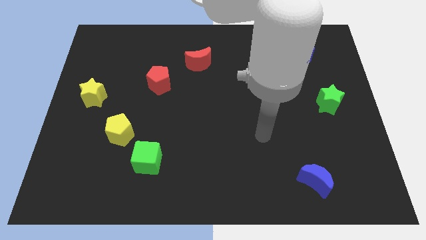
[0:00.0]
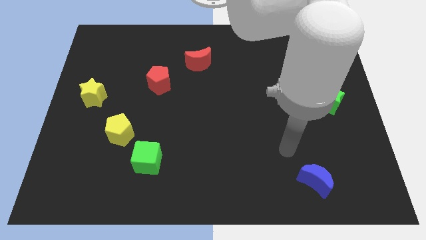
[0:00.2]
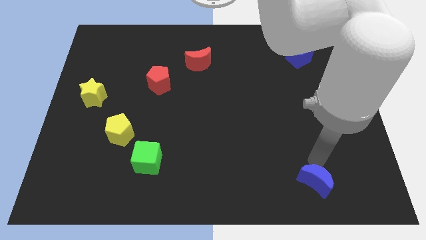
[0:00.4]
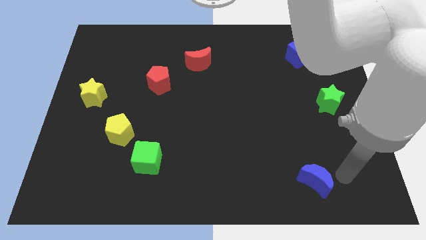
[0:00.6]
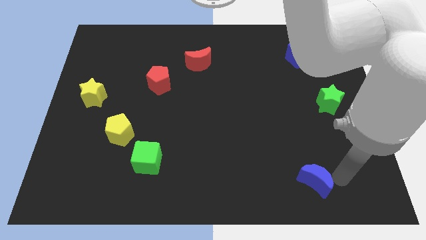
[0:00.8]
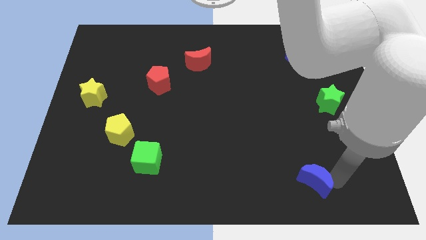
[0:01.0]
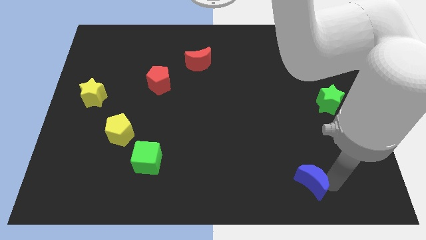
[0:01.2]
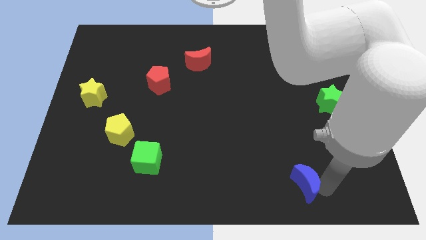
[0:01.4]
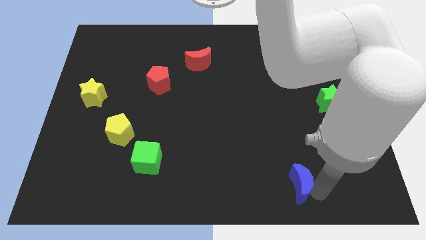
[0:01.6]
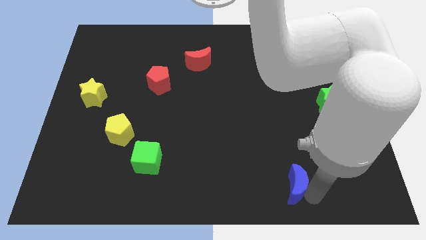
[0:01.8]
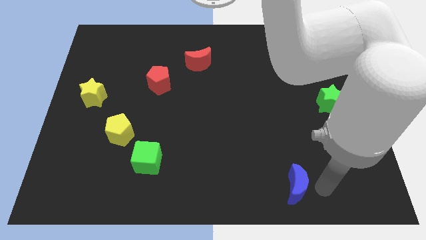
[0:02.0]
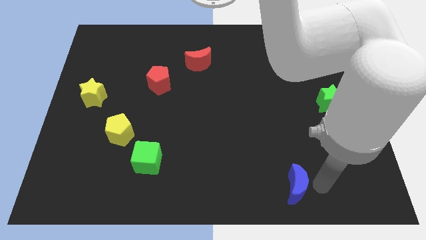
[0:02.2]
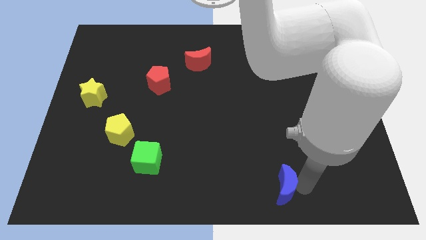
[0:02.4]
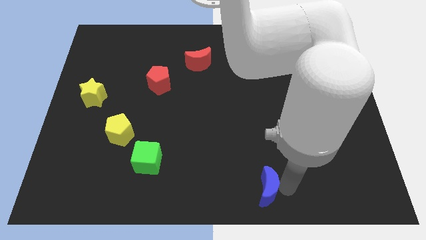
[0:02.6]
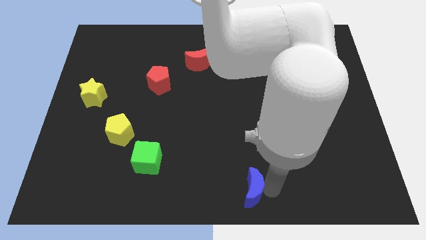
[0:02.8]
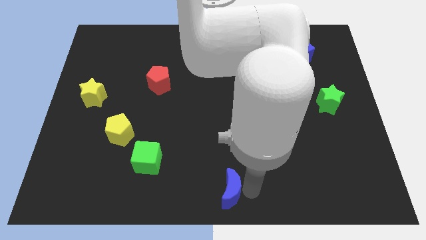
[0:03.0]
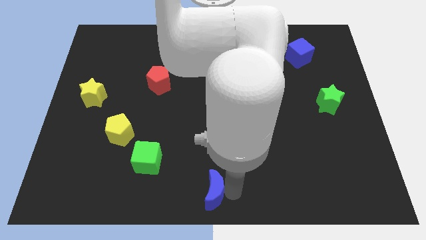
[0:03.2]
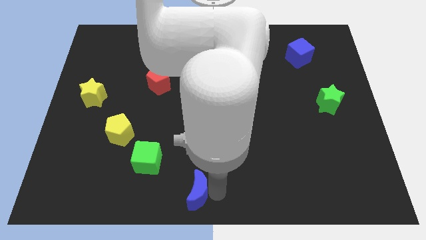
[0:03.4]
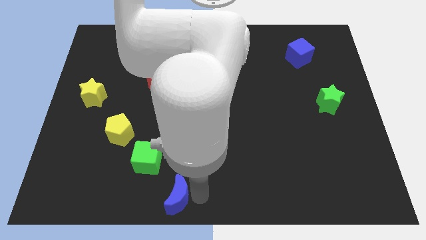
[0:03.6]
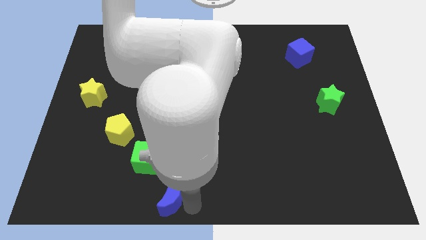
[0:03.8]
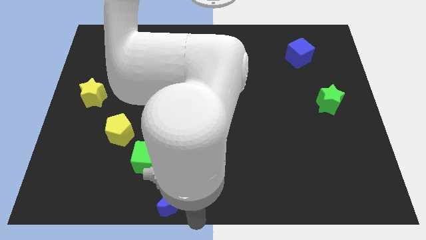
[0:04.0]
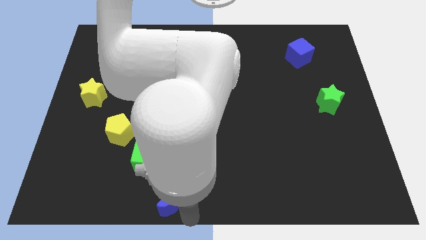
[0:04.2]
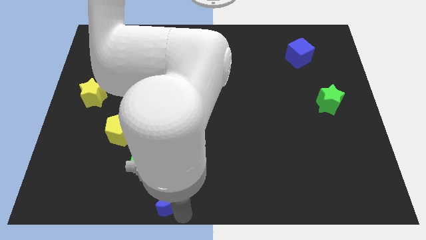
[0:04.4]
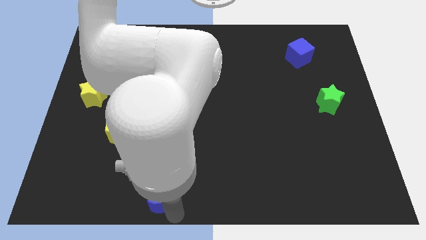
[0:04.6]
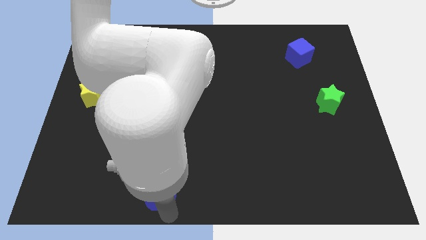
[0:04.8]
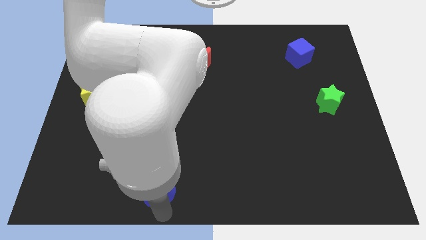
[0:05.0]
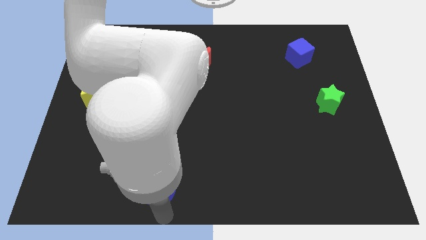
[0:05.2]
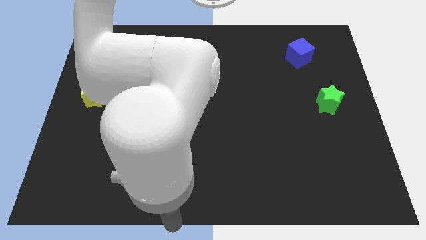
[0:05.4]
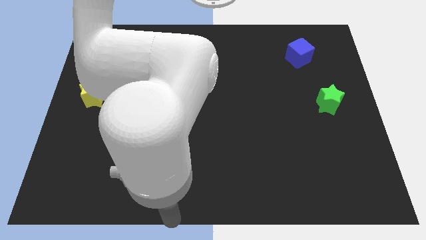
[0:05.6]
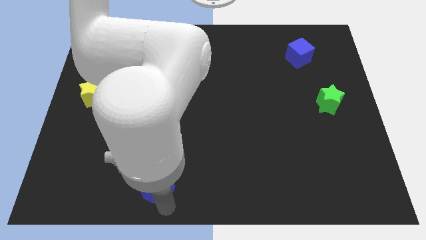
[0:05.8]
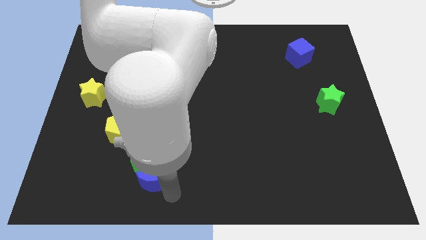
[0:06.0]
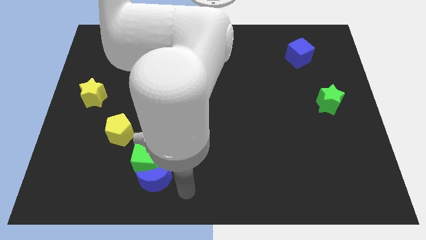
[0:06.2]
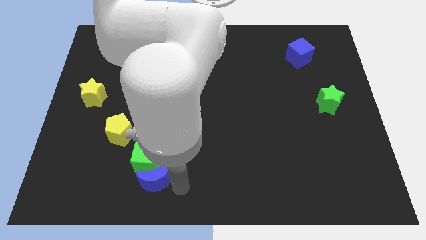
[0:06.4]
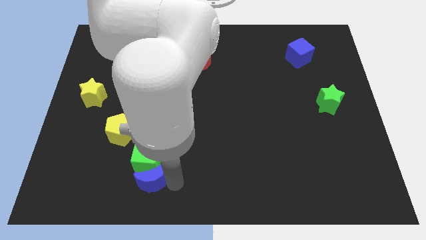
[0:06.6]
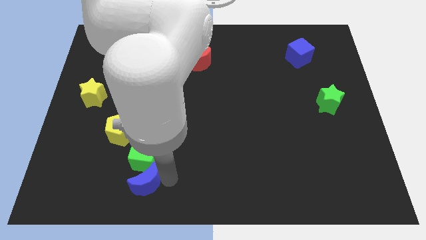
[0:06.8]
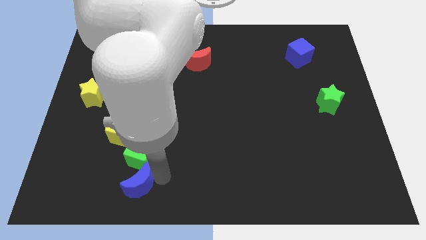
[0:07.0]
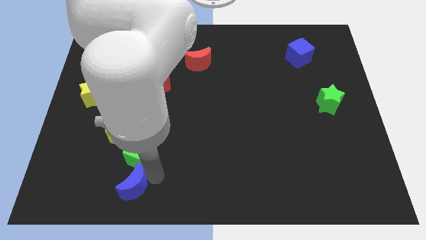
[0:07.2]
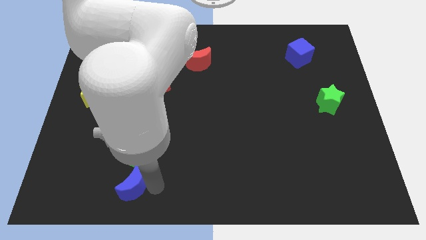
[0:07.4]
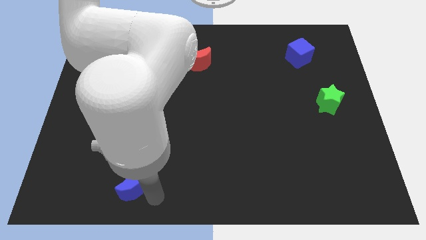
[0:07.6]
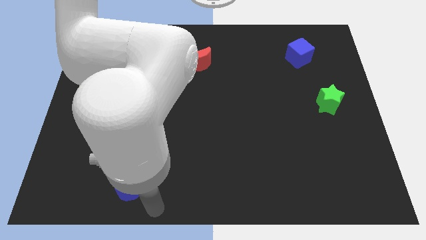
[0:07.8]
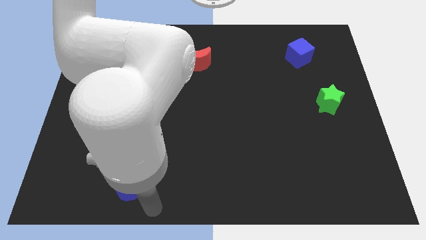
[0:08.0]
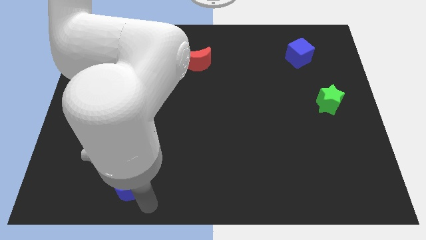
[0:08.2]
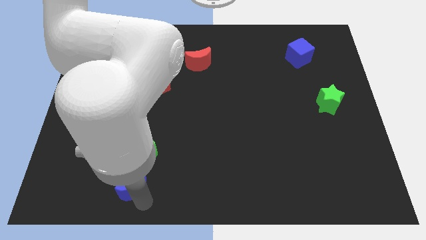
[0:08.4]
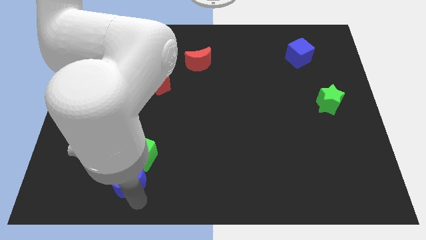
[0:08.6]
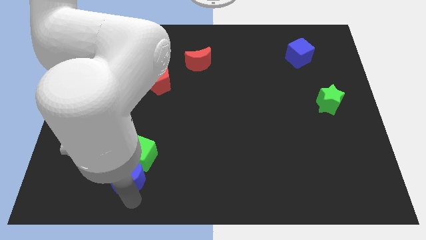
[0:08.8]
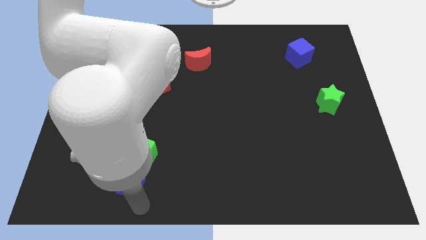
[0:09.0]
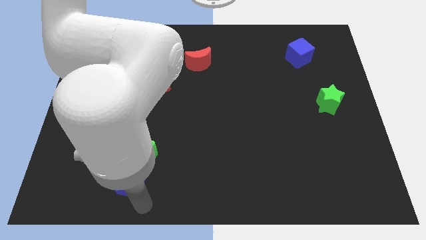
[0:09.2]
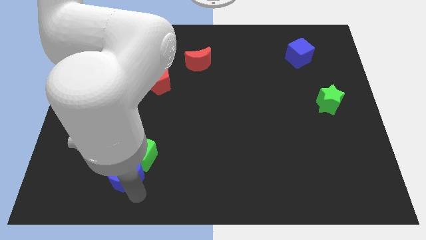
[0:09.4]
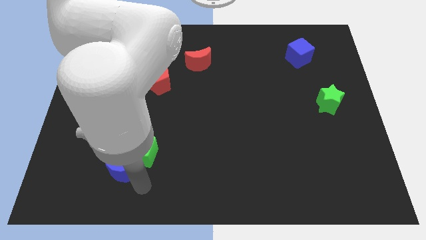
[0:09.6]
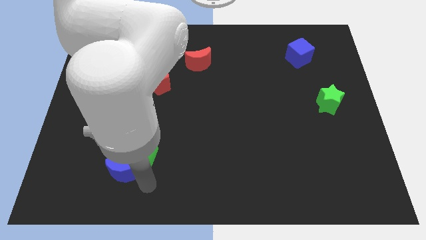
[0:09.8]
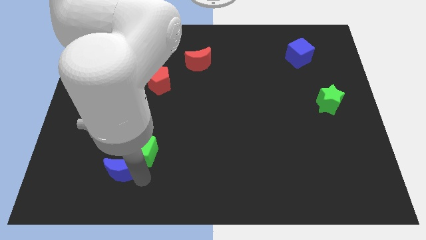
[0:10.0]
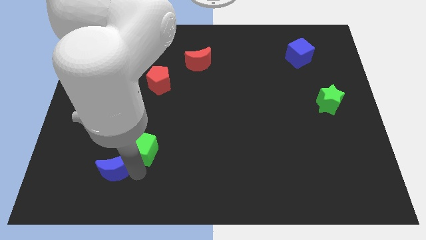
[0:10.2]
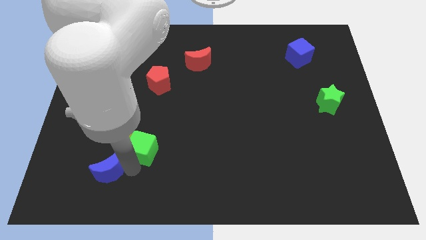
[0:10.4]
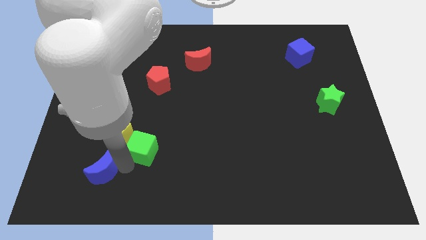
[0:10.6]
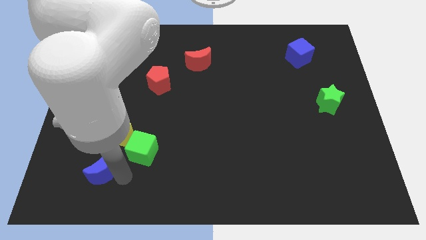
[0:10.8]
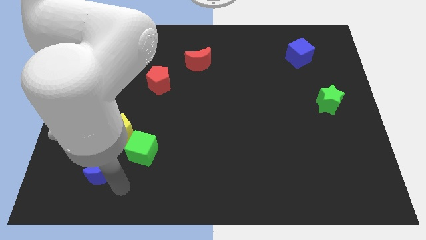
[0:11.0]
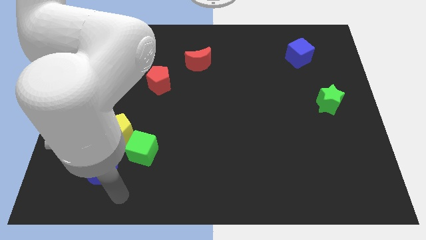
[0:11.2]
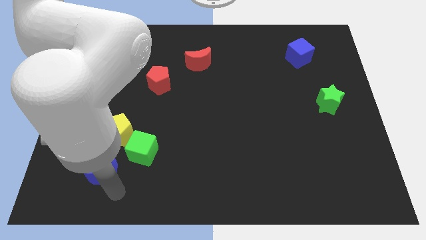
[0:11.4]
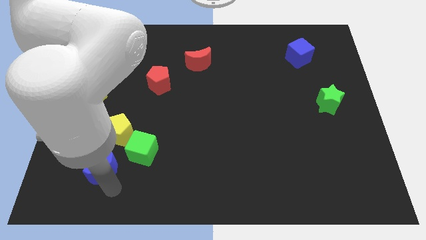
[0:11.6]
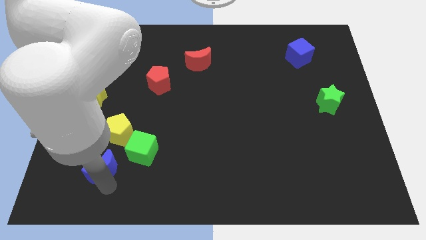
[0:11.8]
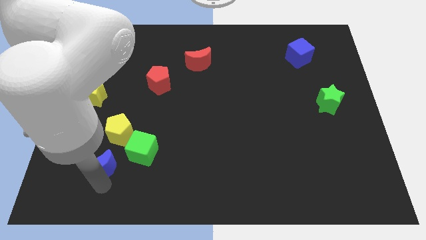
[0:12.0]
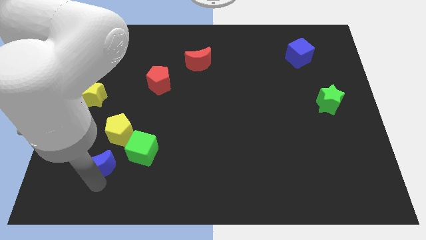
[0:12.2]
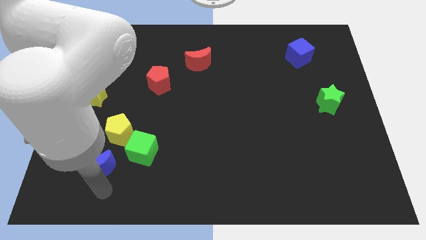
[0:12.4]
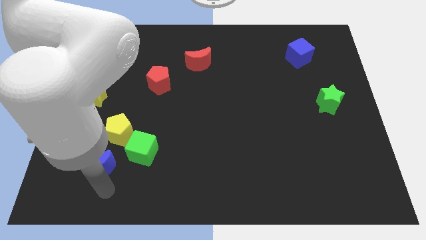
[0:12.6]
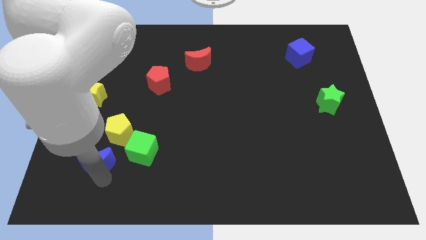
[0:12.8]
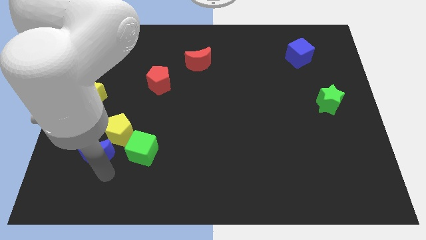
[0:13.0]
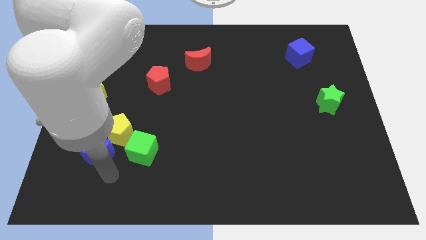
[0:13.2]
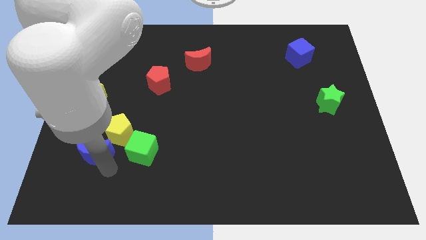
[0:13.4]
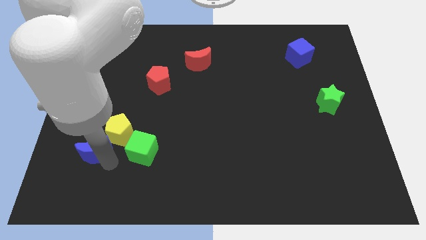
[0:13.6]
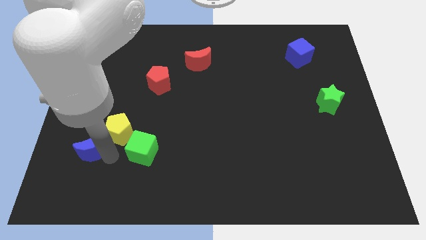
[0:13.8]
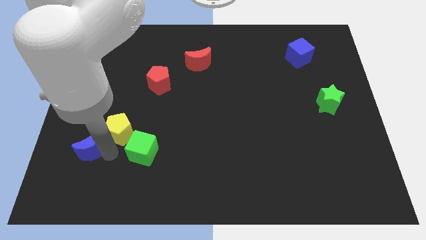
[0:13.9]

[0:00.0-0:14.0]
push the blue moon to the bottom side of the yellow star

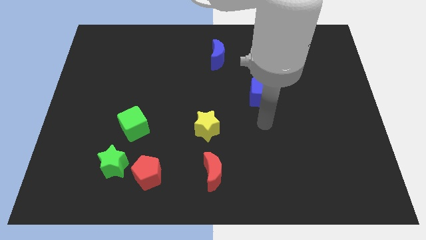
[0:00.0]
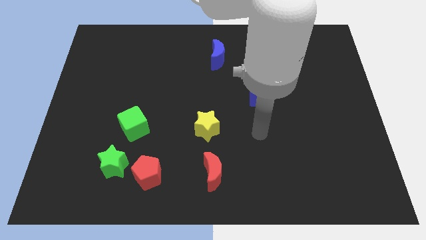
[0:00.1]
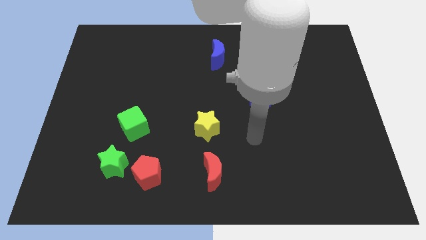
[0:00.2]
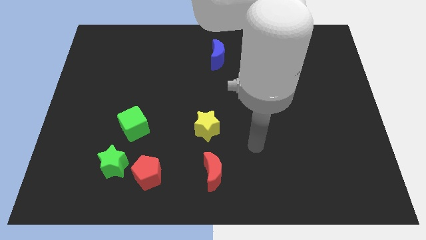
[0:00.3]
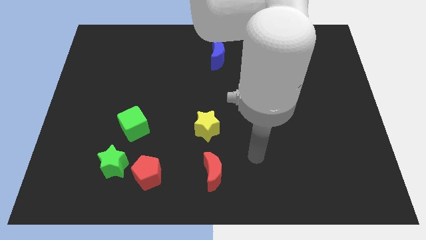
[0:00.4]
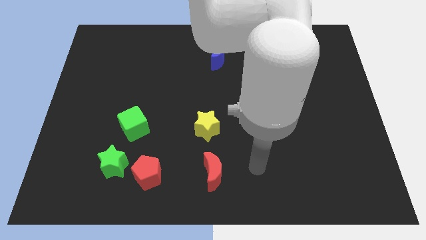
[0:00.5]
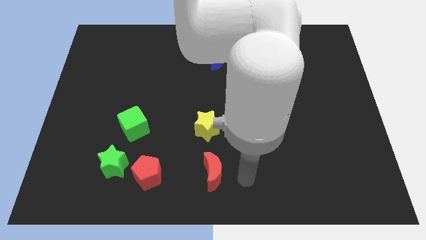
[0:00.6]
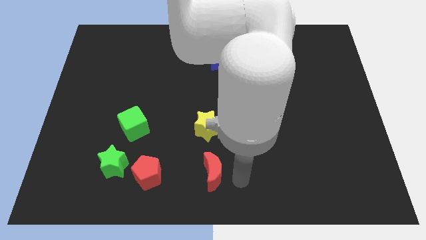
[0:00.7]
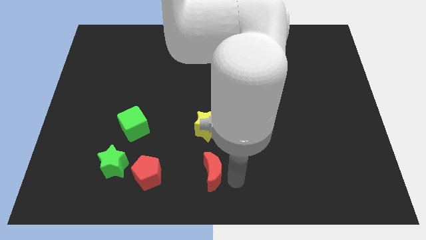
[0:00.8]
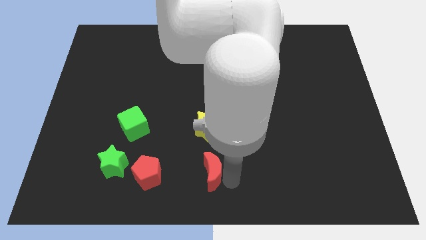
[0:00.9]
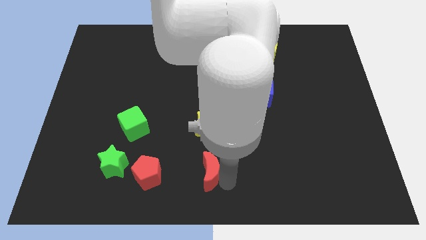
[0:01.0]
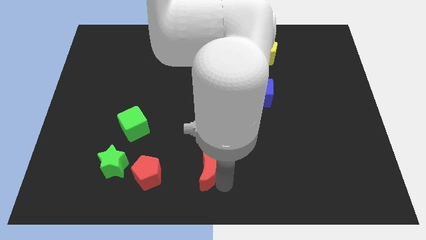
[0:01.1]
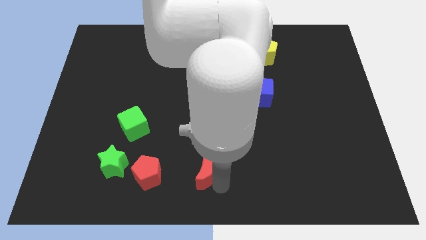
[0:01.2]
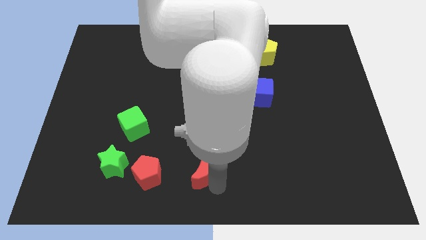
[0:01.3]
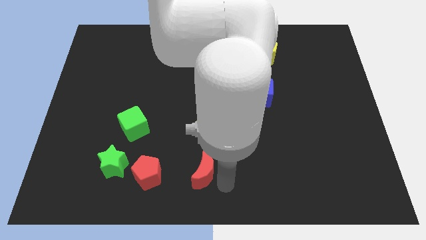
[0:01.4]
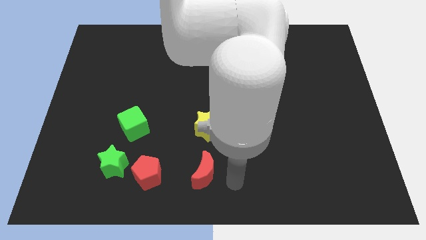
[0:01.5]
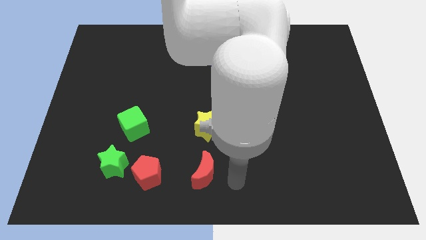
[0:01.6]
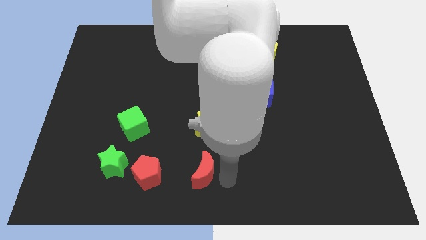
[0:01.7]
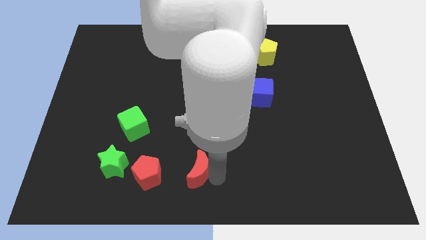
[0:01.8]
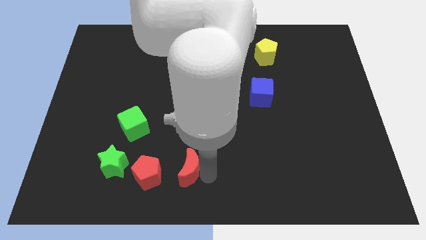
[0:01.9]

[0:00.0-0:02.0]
push the red moon just right of the green star
